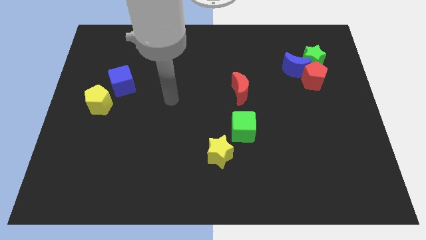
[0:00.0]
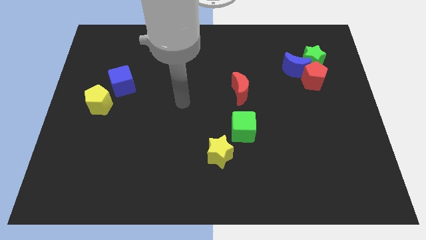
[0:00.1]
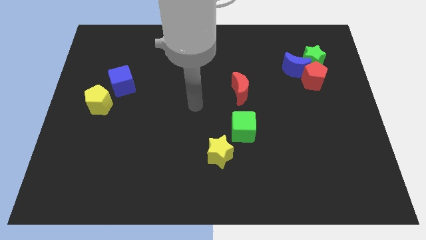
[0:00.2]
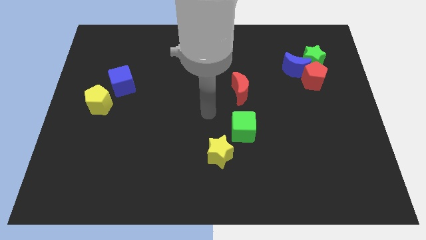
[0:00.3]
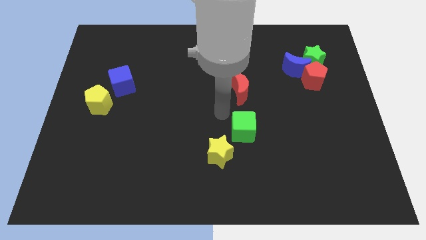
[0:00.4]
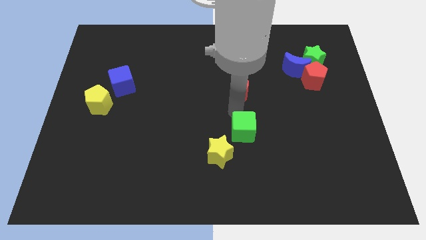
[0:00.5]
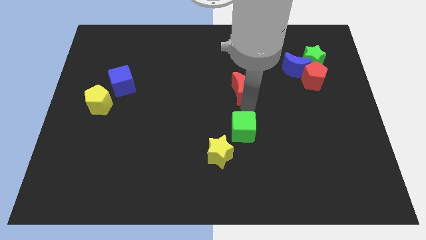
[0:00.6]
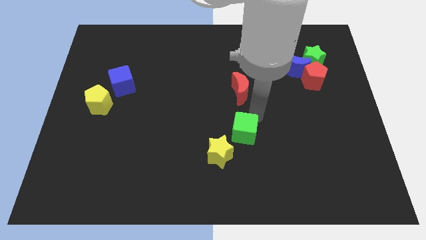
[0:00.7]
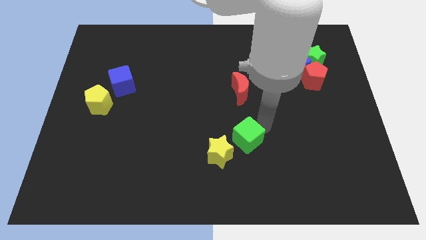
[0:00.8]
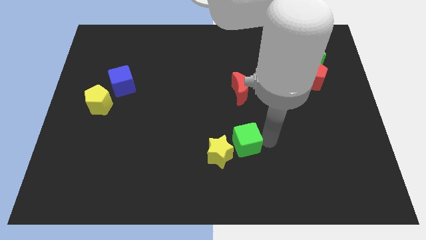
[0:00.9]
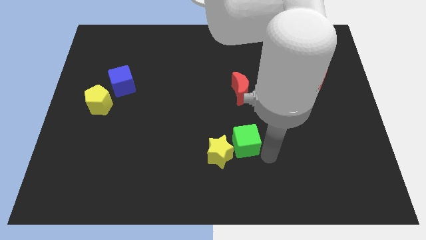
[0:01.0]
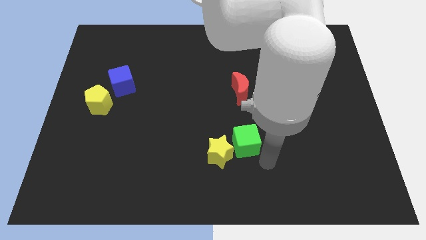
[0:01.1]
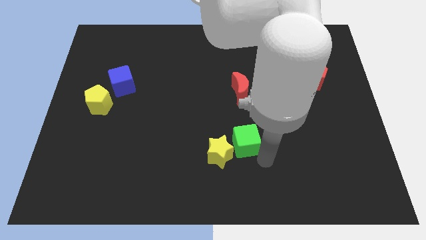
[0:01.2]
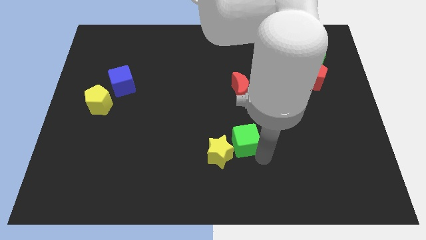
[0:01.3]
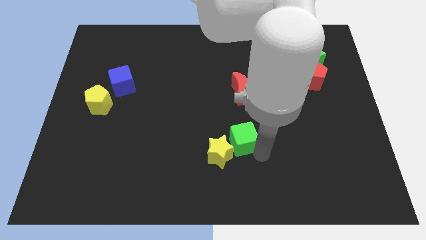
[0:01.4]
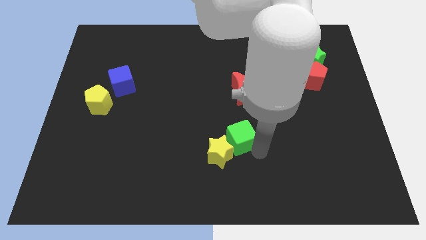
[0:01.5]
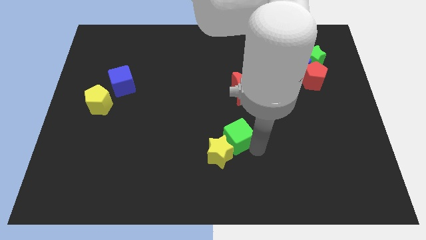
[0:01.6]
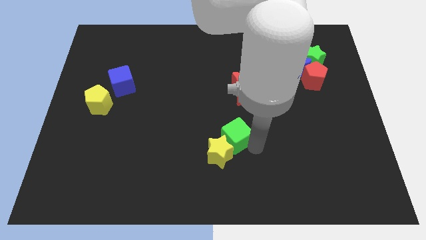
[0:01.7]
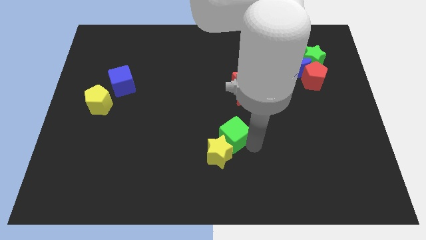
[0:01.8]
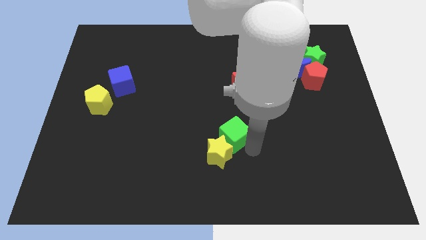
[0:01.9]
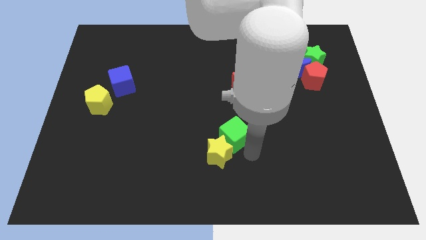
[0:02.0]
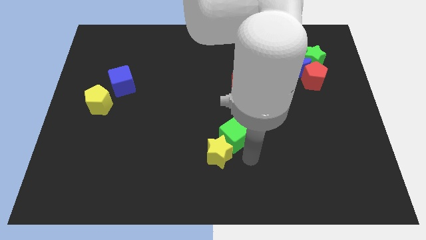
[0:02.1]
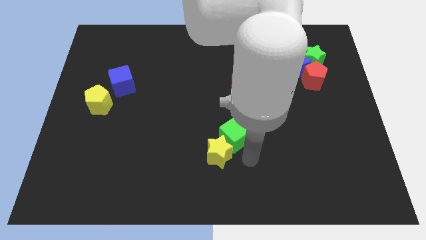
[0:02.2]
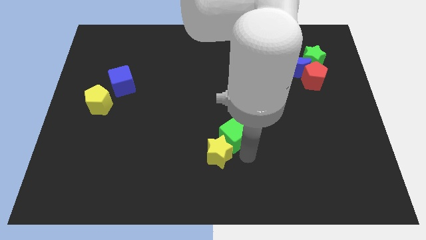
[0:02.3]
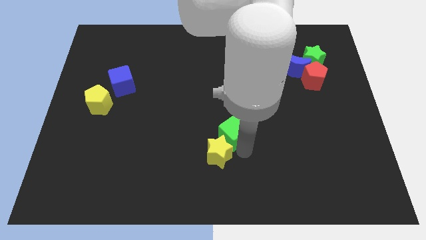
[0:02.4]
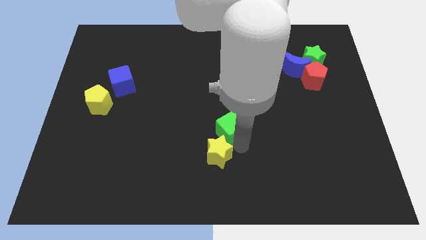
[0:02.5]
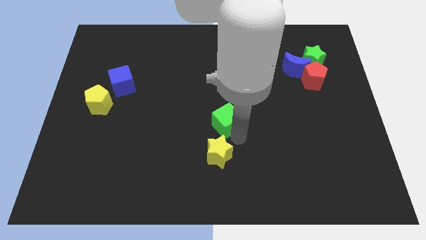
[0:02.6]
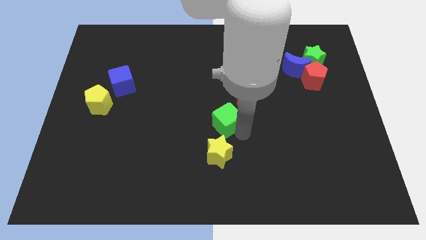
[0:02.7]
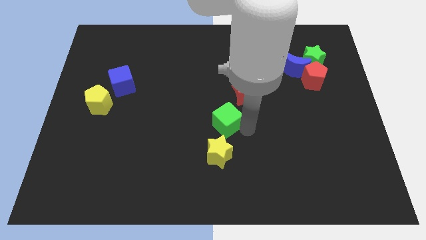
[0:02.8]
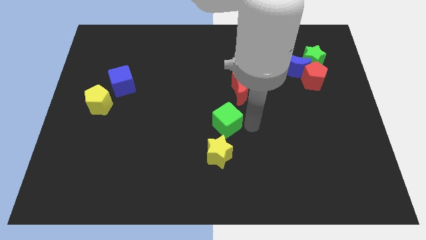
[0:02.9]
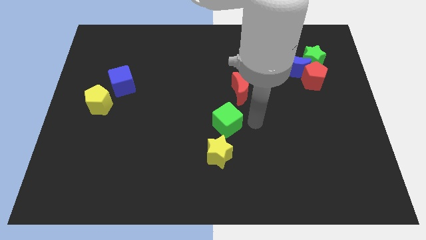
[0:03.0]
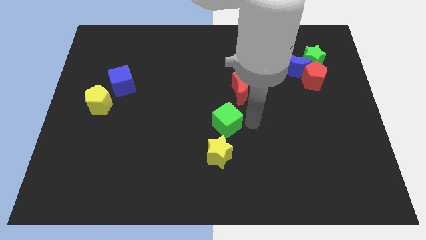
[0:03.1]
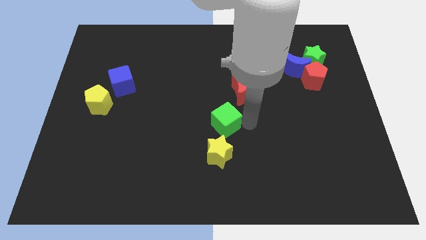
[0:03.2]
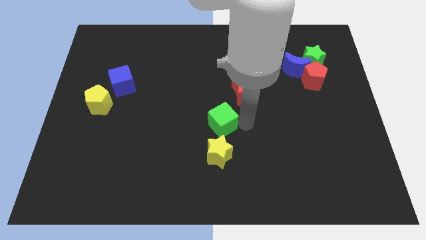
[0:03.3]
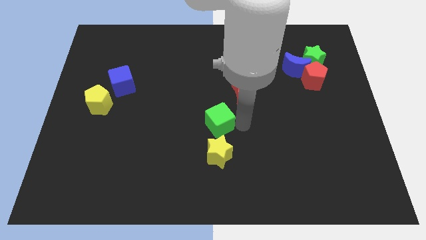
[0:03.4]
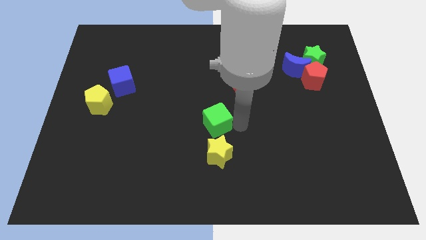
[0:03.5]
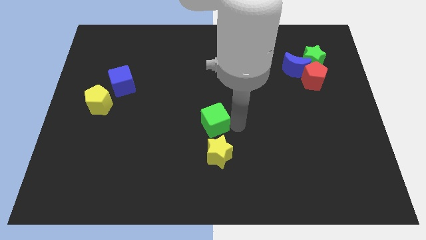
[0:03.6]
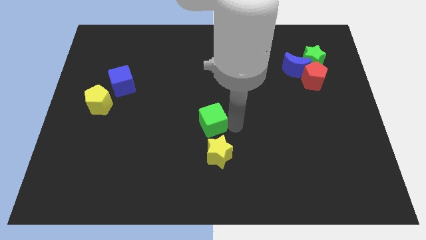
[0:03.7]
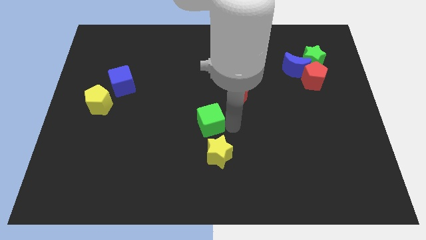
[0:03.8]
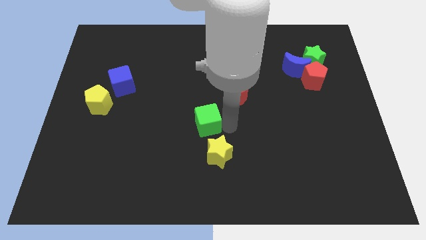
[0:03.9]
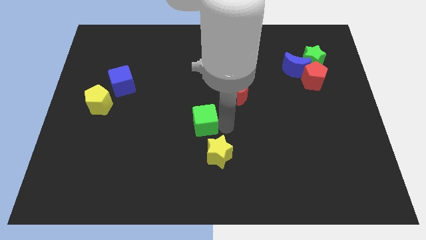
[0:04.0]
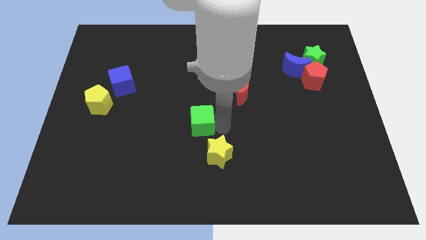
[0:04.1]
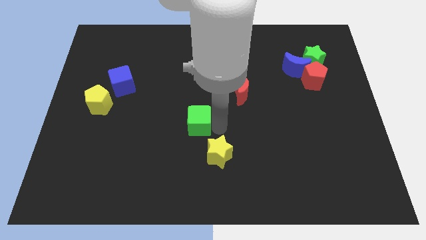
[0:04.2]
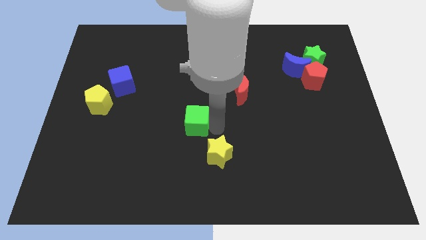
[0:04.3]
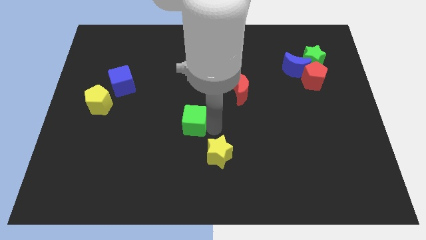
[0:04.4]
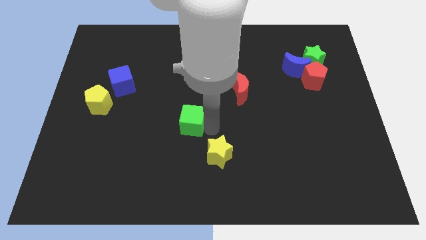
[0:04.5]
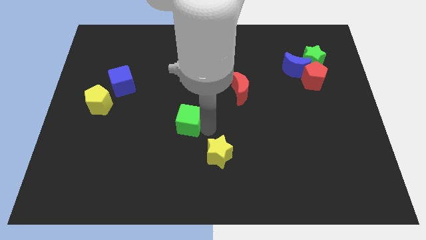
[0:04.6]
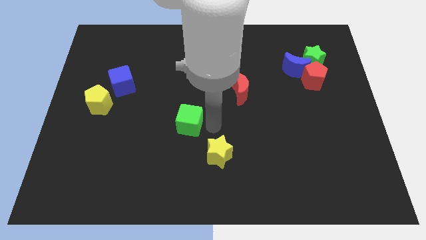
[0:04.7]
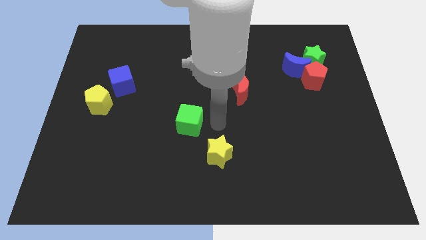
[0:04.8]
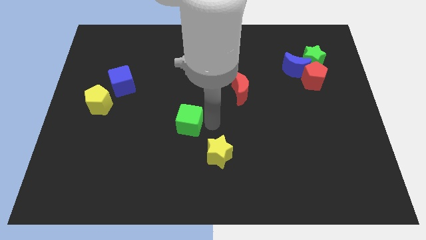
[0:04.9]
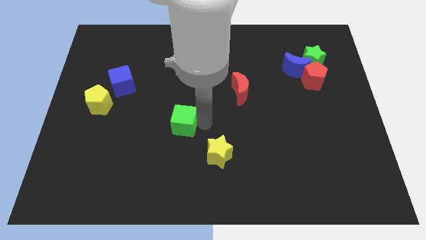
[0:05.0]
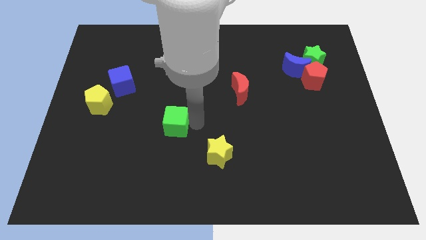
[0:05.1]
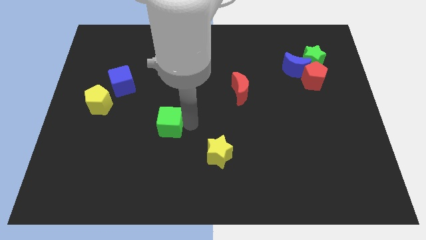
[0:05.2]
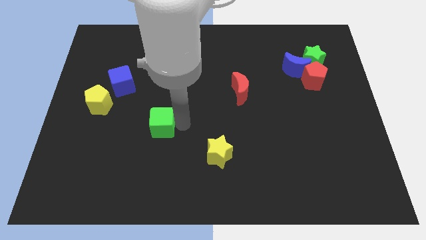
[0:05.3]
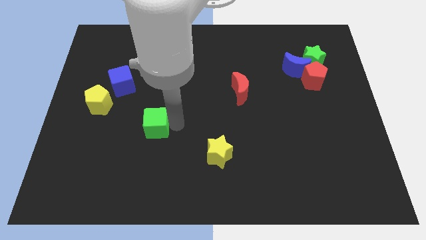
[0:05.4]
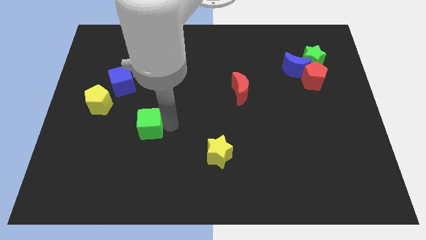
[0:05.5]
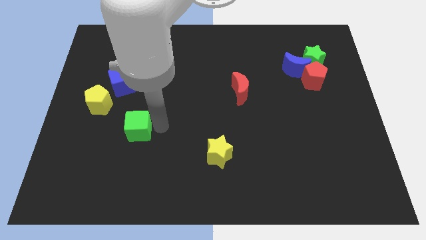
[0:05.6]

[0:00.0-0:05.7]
put the green cube diagonally down and to the right of the yellow pentagon

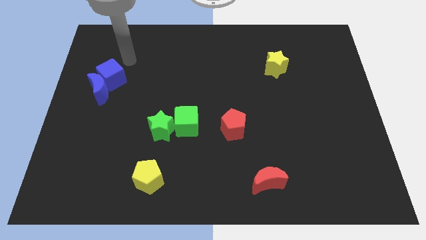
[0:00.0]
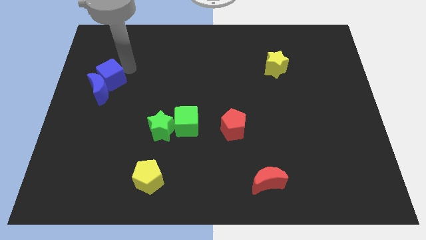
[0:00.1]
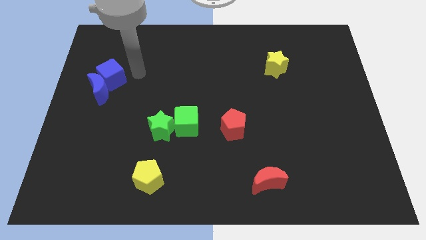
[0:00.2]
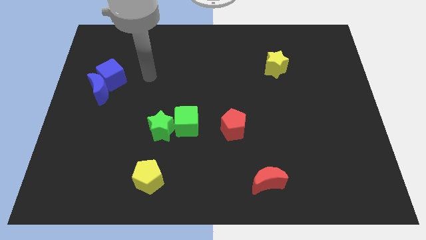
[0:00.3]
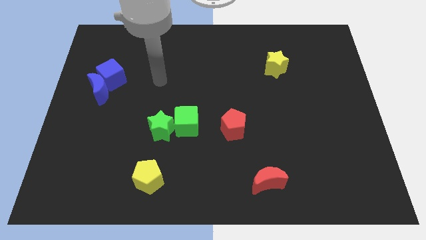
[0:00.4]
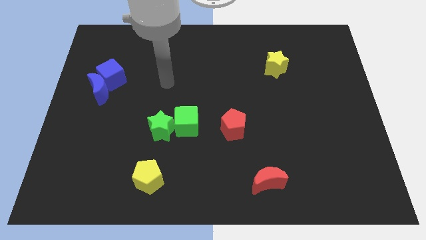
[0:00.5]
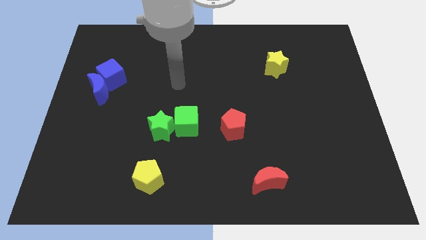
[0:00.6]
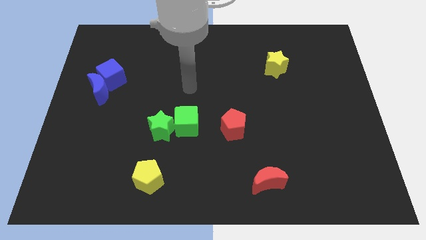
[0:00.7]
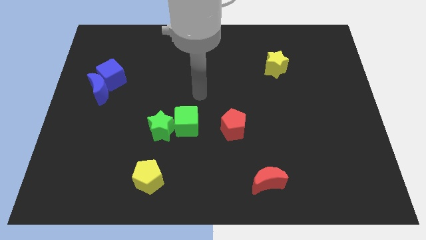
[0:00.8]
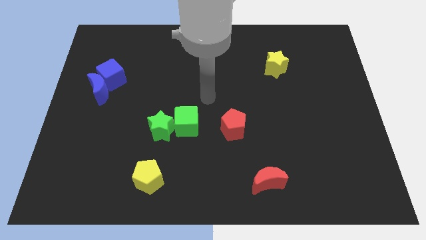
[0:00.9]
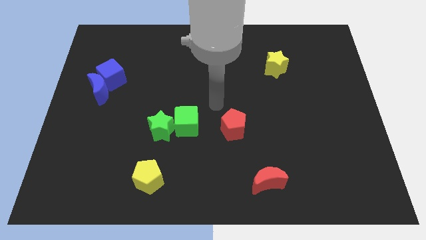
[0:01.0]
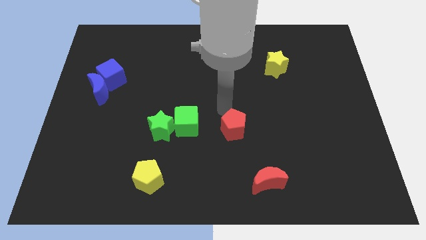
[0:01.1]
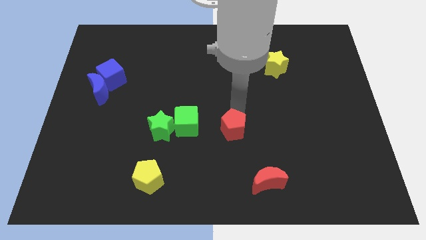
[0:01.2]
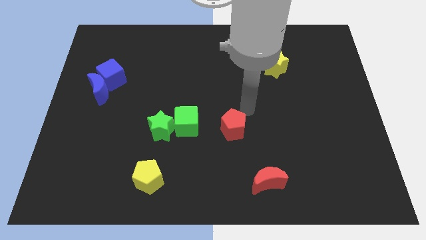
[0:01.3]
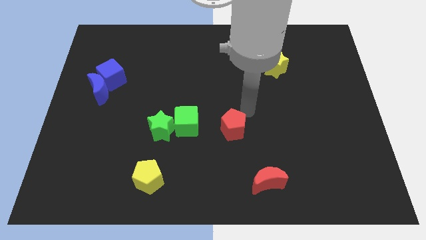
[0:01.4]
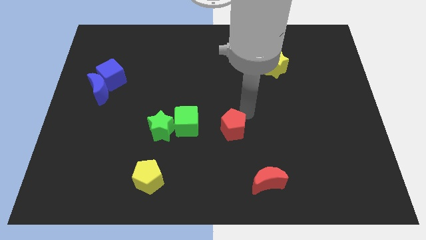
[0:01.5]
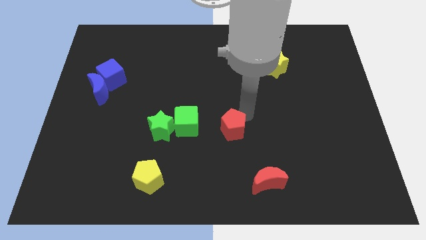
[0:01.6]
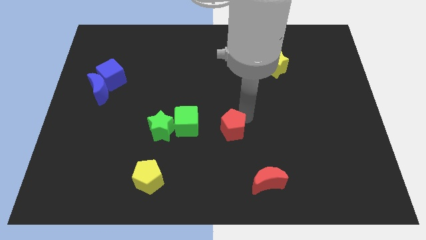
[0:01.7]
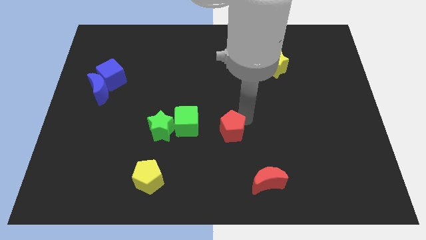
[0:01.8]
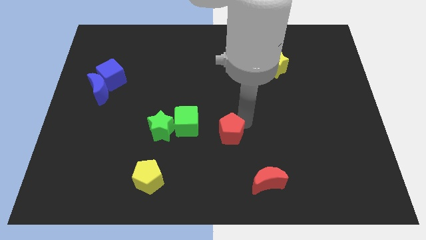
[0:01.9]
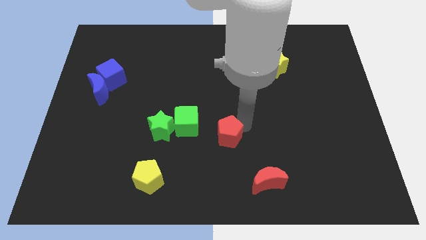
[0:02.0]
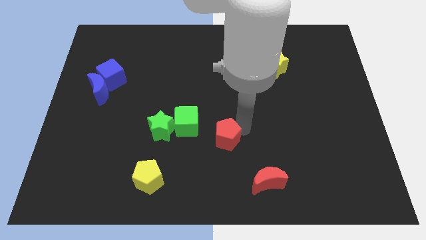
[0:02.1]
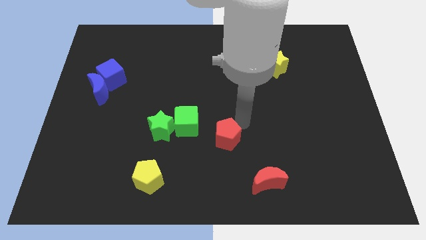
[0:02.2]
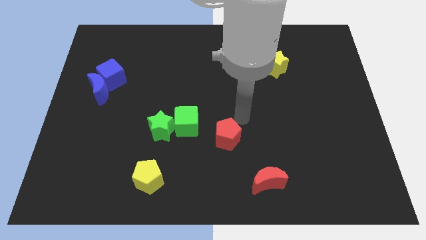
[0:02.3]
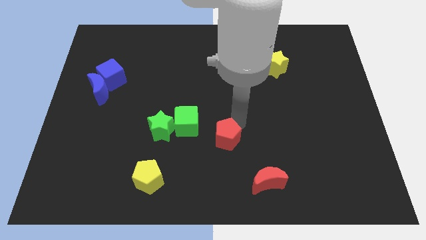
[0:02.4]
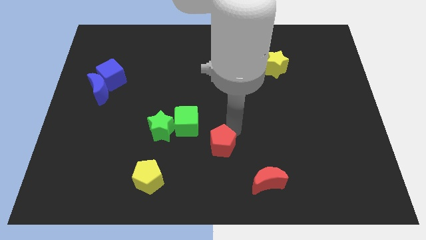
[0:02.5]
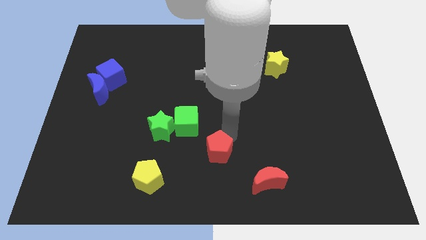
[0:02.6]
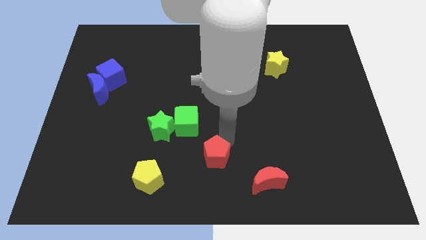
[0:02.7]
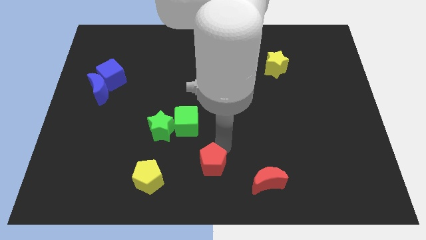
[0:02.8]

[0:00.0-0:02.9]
put the red pentagon just right of the yellow pentagon
